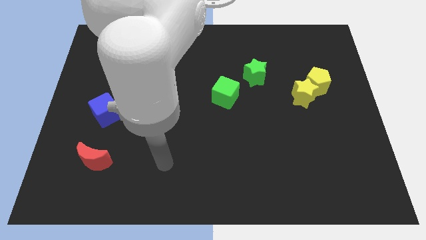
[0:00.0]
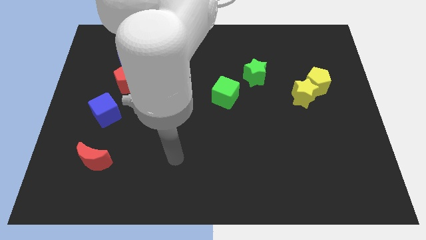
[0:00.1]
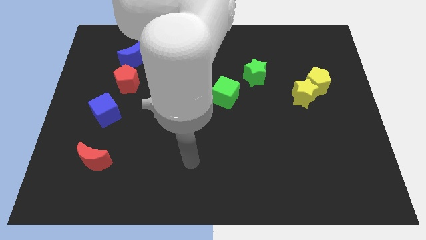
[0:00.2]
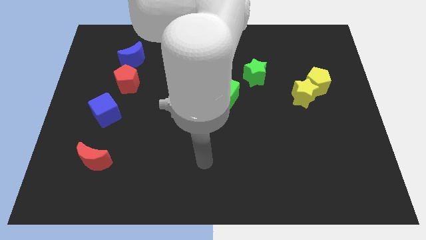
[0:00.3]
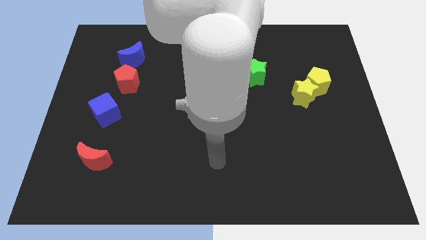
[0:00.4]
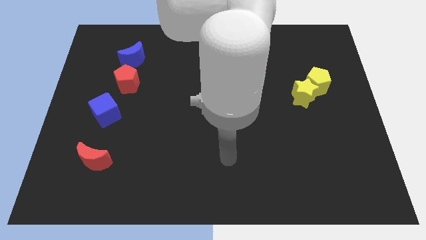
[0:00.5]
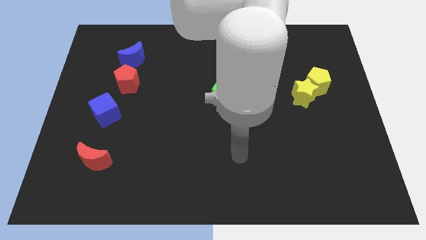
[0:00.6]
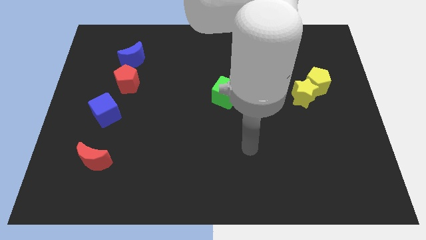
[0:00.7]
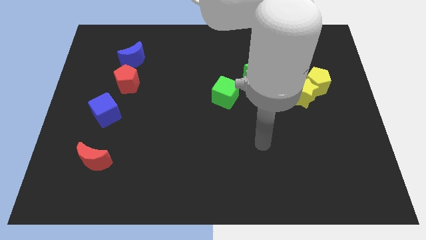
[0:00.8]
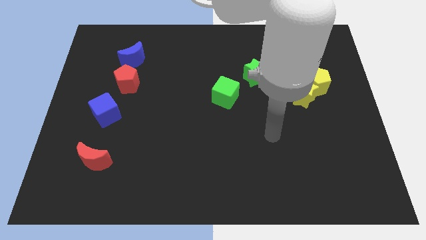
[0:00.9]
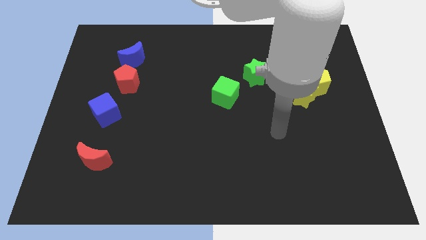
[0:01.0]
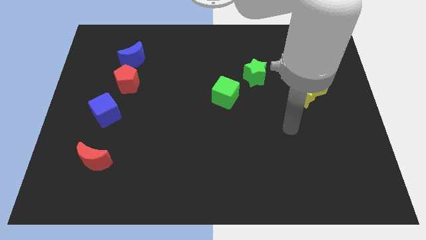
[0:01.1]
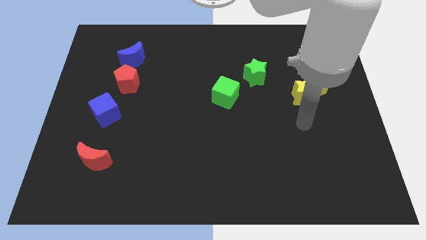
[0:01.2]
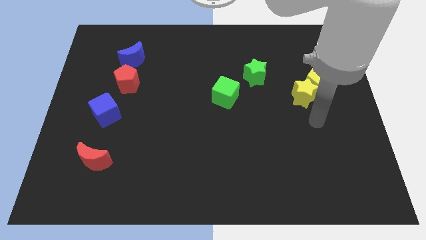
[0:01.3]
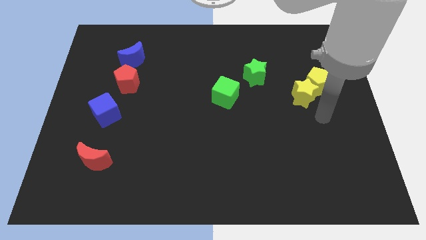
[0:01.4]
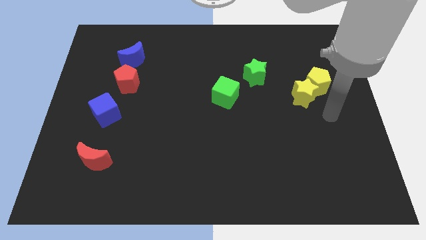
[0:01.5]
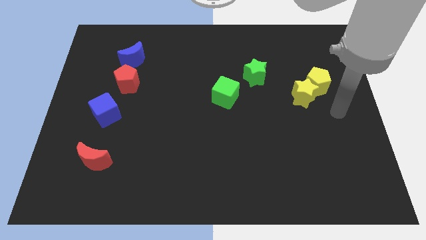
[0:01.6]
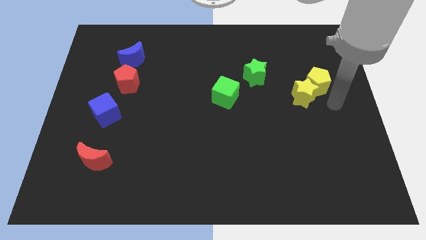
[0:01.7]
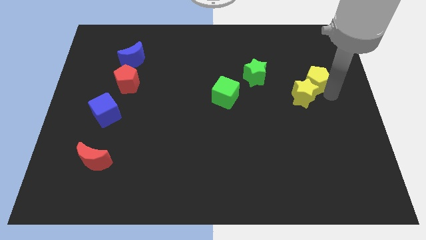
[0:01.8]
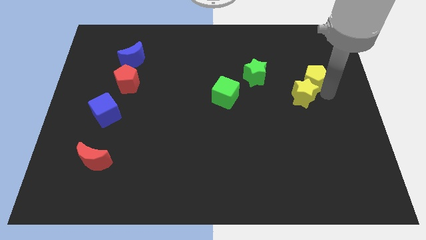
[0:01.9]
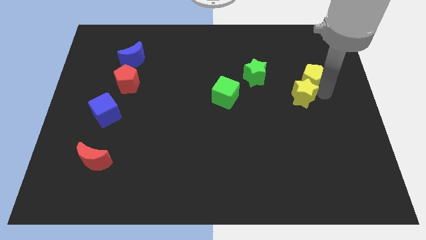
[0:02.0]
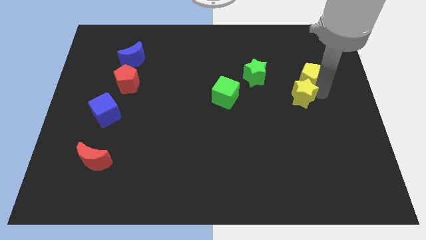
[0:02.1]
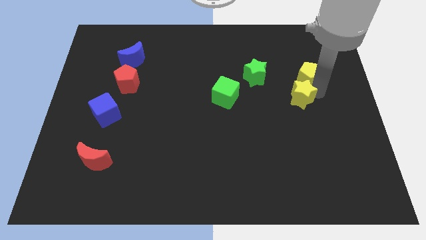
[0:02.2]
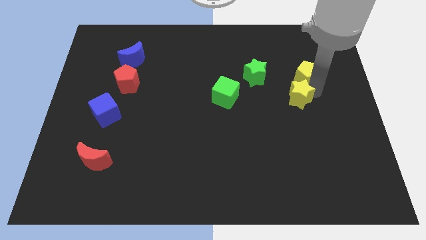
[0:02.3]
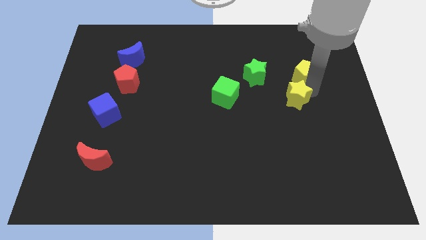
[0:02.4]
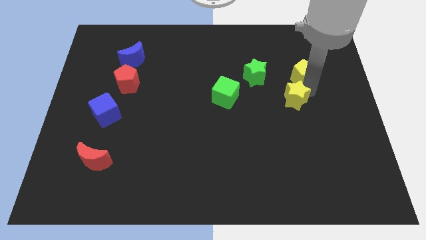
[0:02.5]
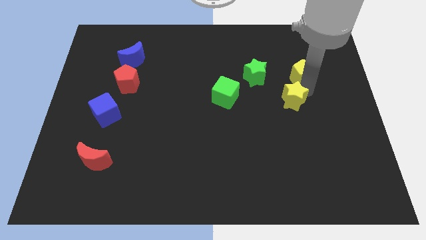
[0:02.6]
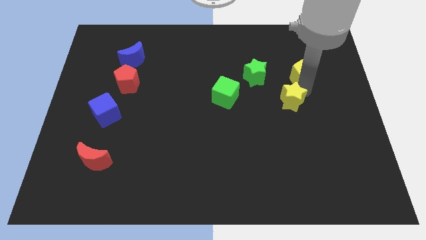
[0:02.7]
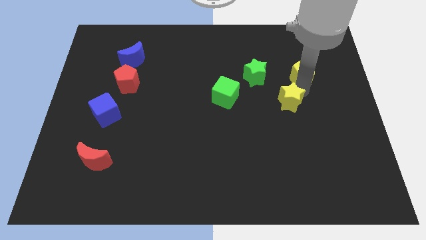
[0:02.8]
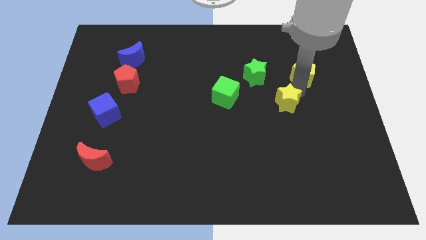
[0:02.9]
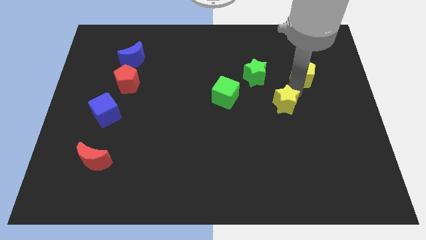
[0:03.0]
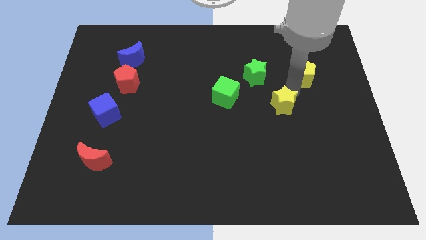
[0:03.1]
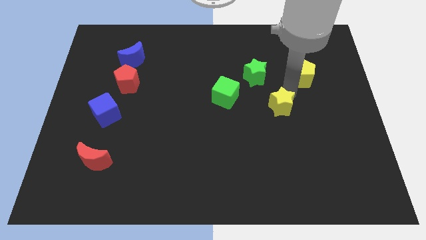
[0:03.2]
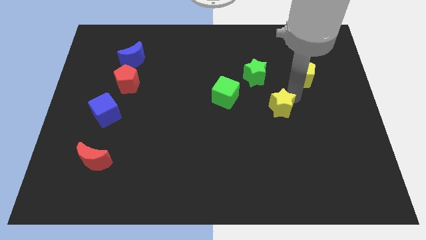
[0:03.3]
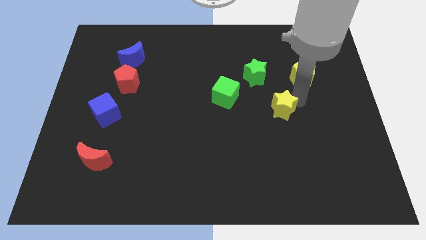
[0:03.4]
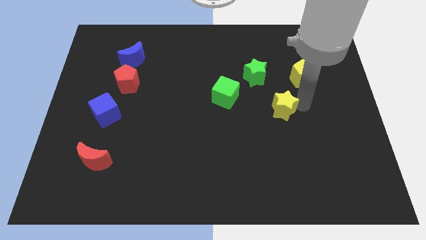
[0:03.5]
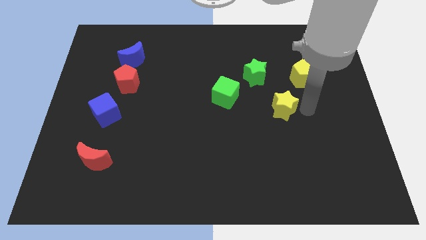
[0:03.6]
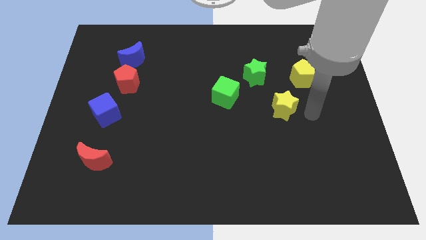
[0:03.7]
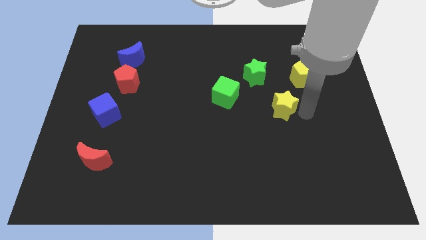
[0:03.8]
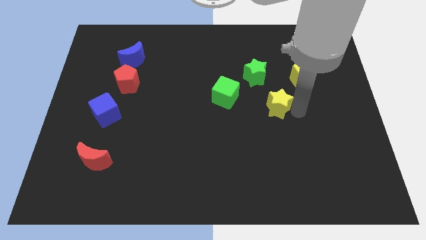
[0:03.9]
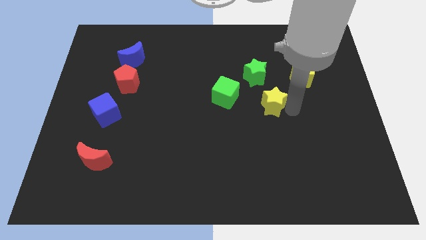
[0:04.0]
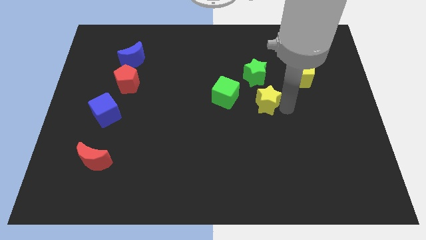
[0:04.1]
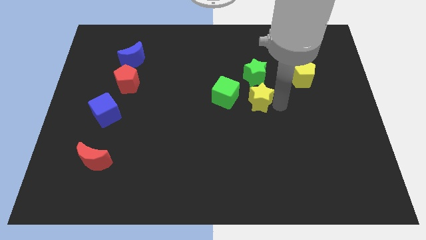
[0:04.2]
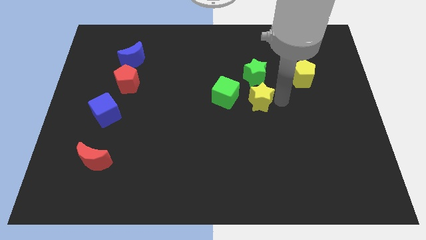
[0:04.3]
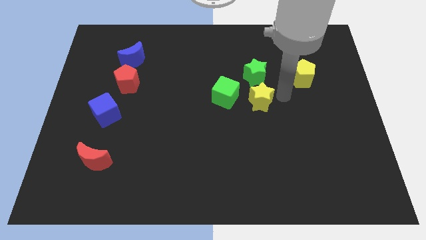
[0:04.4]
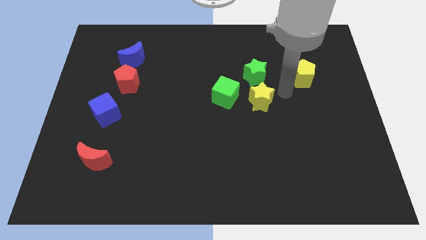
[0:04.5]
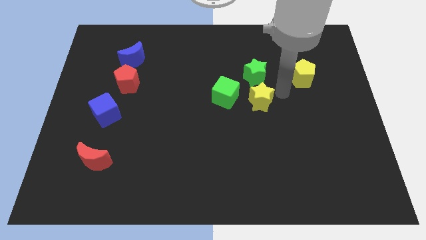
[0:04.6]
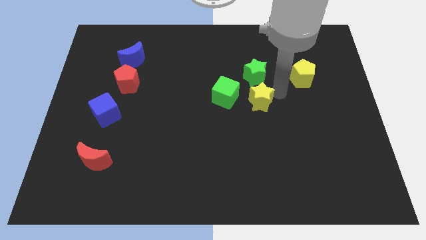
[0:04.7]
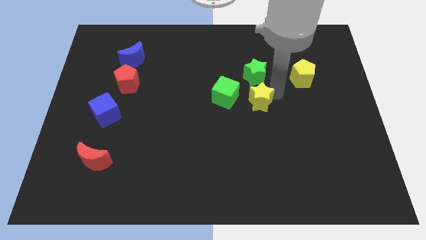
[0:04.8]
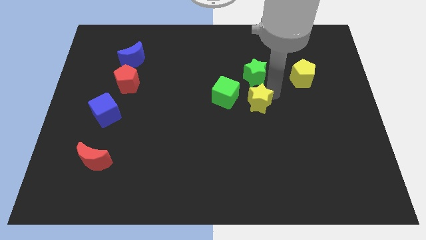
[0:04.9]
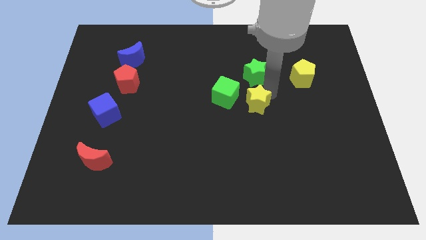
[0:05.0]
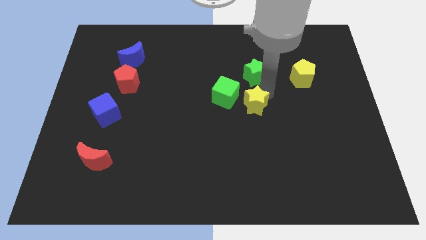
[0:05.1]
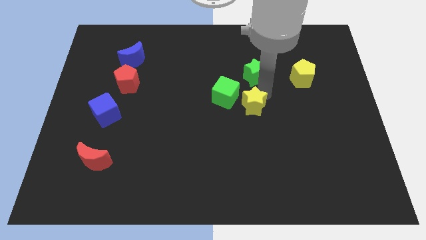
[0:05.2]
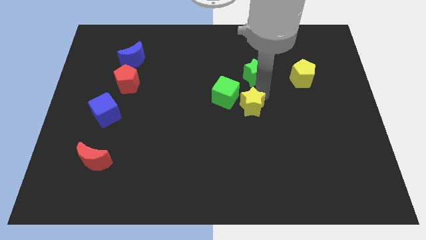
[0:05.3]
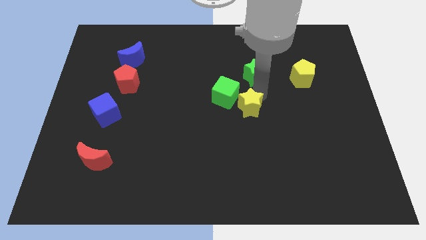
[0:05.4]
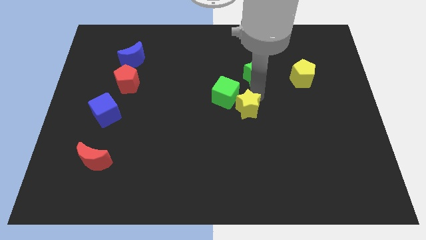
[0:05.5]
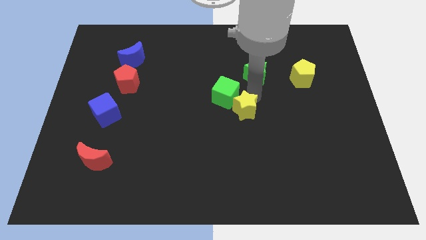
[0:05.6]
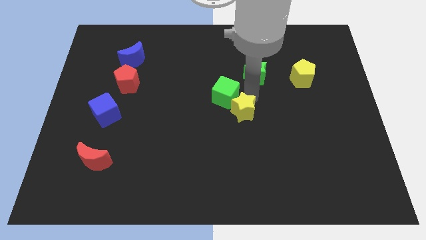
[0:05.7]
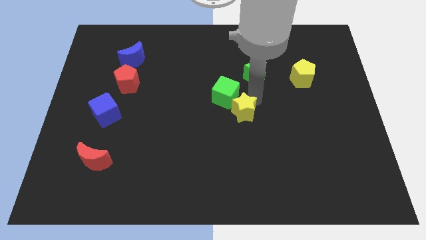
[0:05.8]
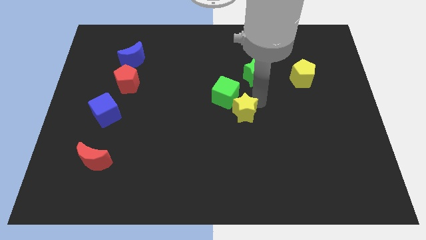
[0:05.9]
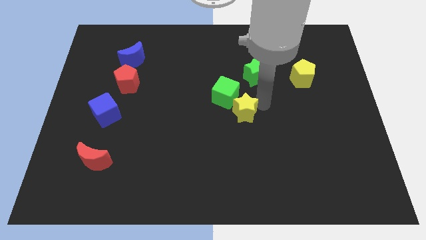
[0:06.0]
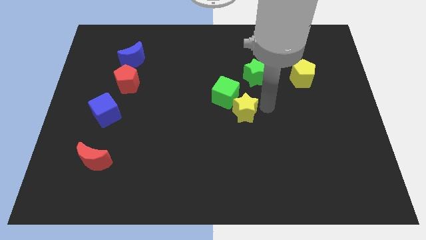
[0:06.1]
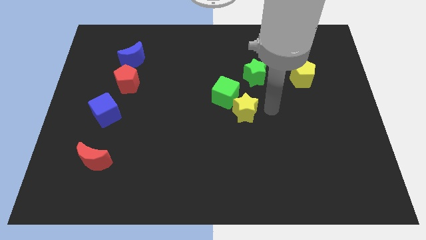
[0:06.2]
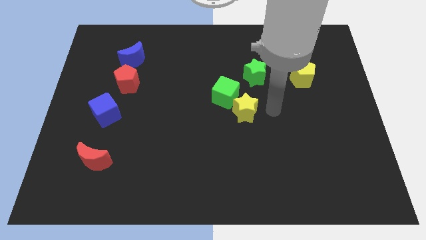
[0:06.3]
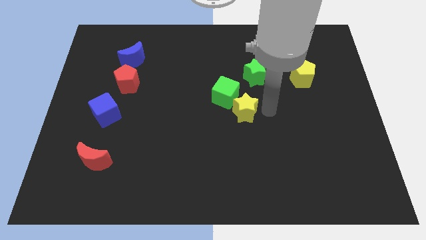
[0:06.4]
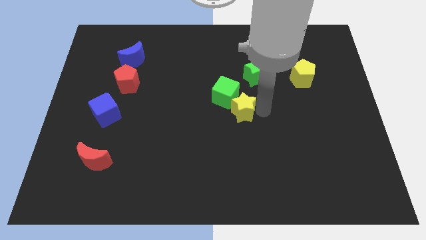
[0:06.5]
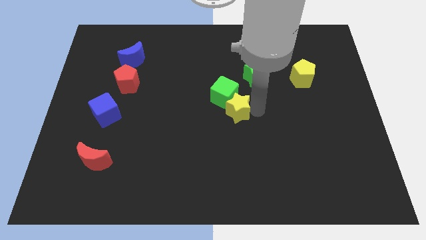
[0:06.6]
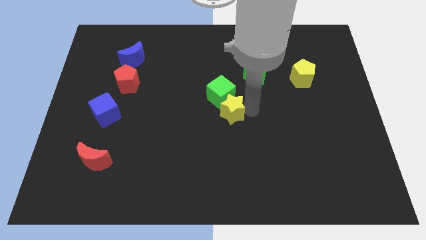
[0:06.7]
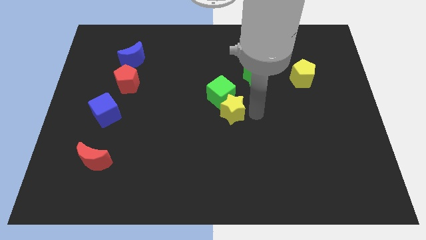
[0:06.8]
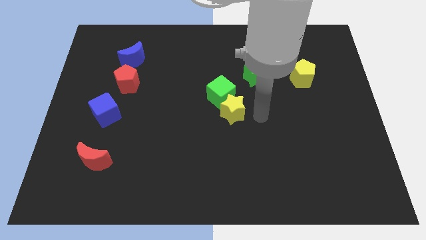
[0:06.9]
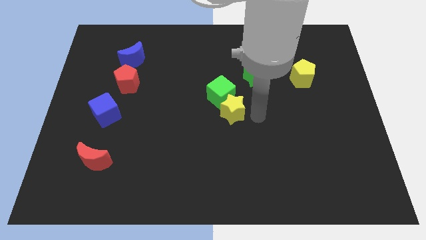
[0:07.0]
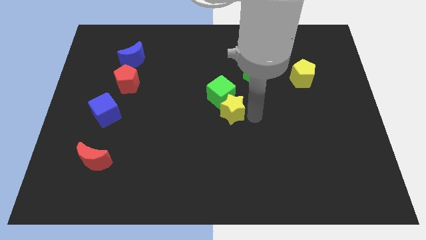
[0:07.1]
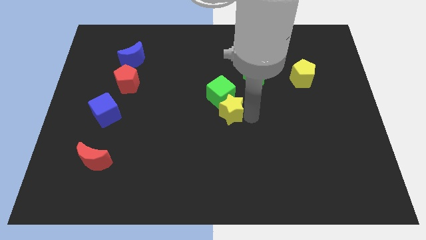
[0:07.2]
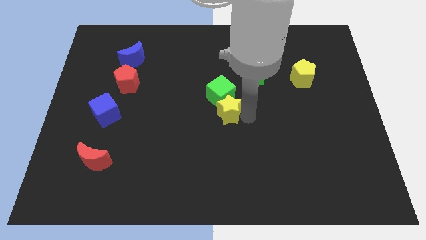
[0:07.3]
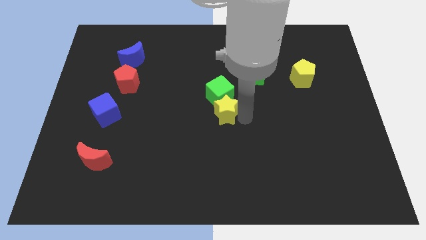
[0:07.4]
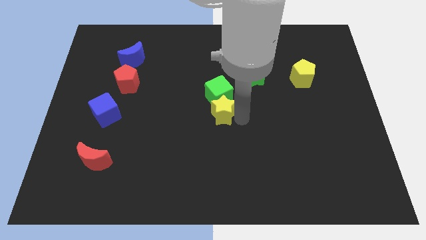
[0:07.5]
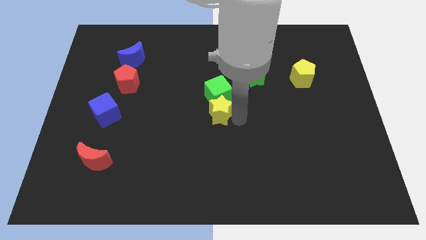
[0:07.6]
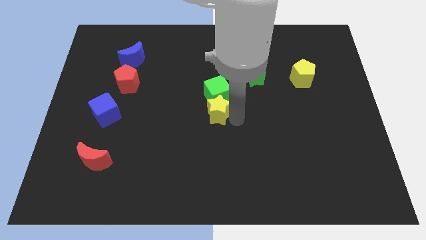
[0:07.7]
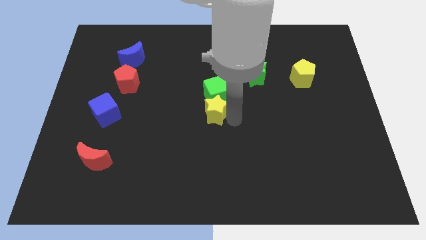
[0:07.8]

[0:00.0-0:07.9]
slide the yellow star to the left
